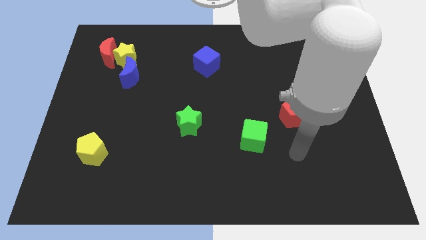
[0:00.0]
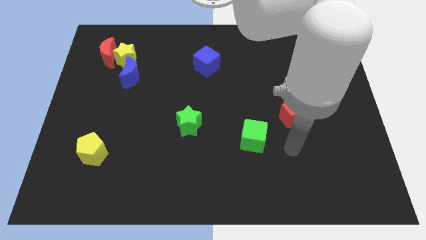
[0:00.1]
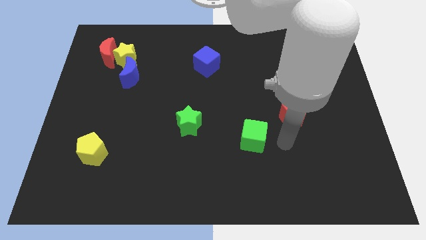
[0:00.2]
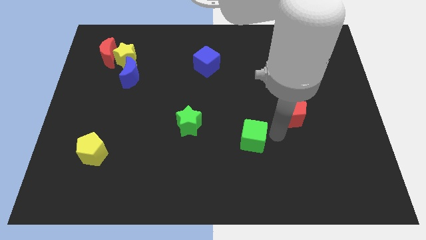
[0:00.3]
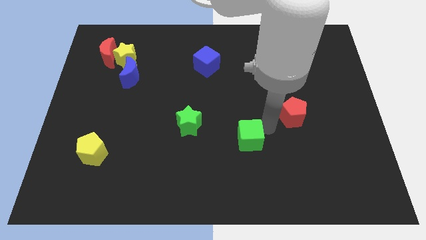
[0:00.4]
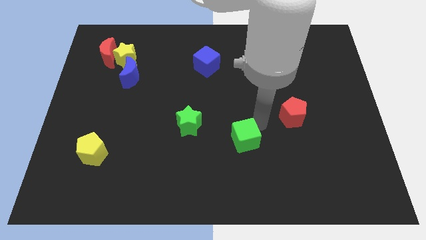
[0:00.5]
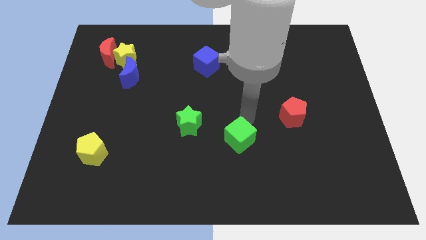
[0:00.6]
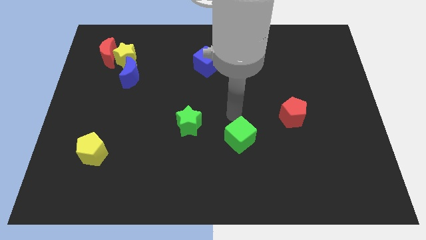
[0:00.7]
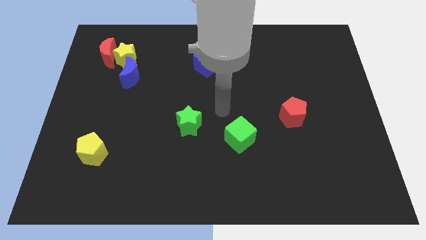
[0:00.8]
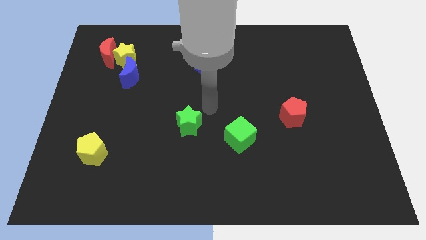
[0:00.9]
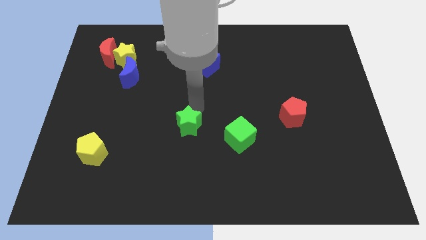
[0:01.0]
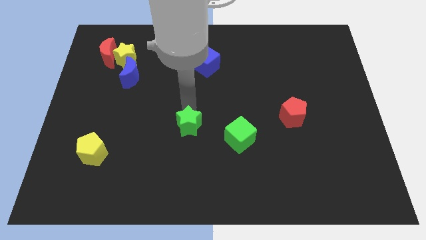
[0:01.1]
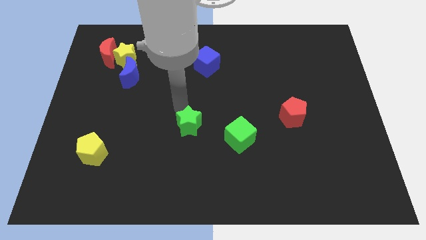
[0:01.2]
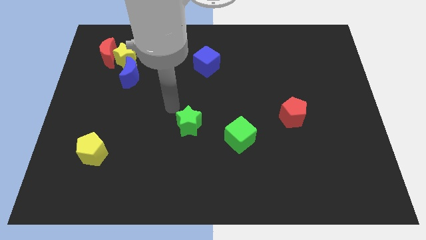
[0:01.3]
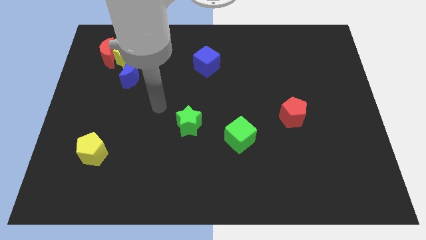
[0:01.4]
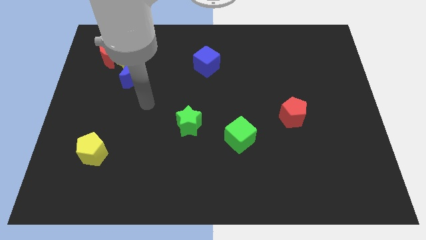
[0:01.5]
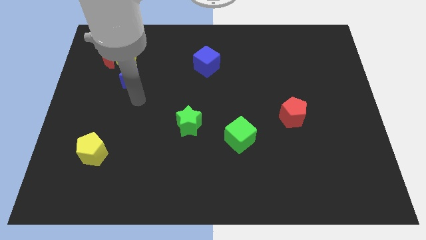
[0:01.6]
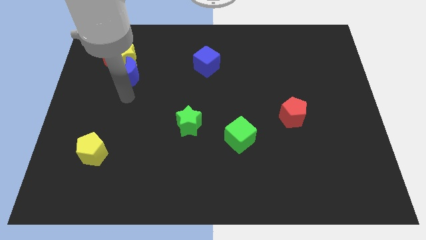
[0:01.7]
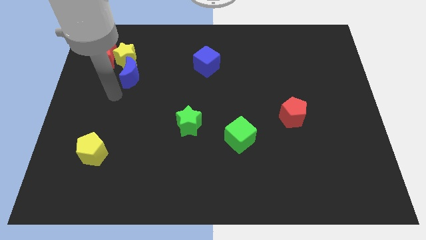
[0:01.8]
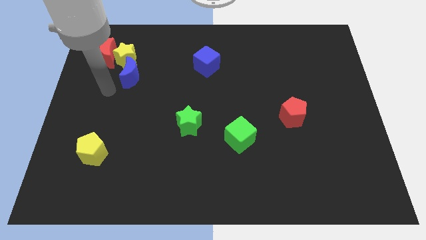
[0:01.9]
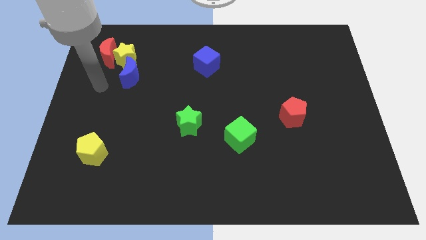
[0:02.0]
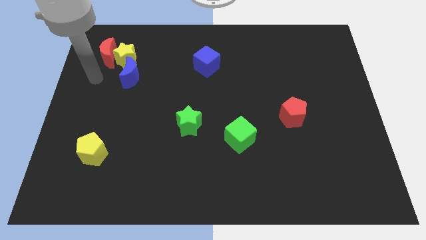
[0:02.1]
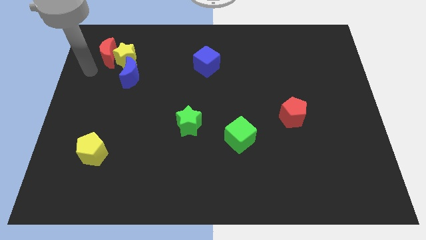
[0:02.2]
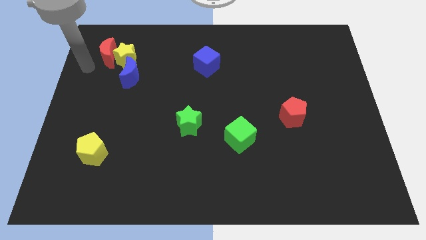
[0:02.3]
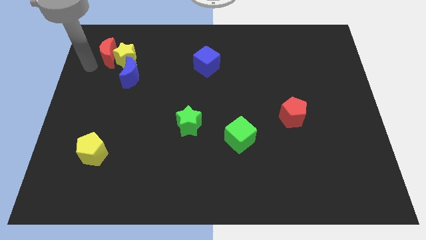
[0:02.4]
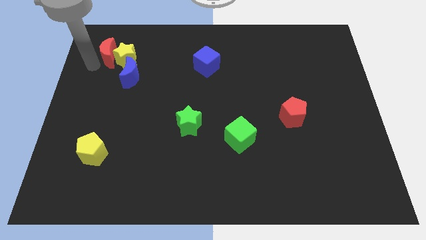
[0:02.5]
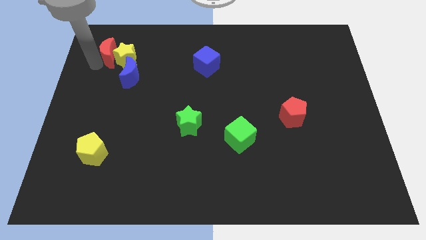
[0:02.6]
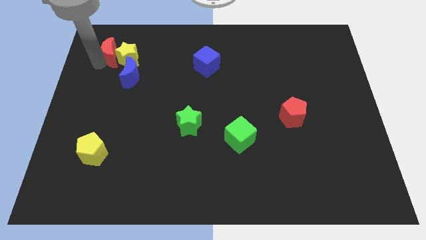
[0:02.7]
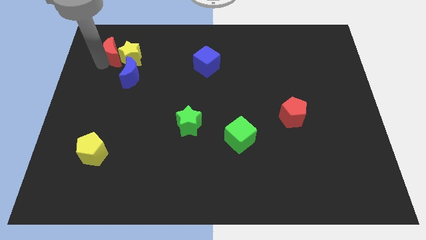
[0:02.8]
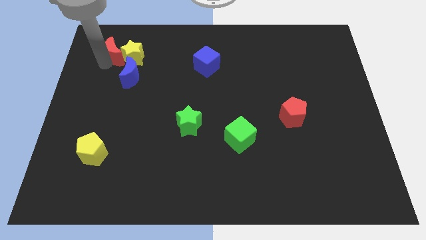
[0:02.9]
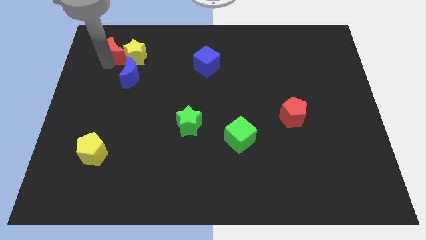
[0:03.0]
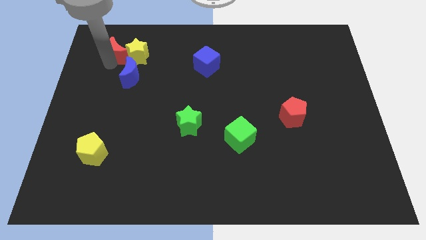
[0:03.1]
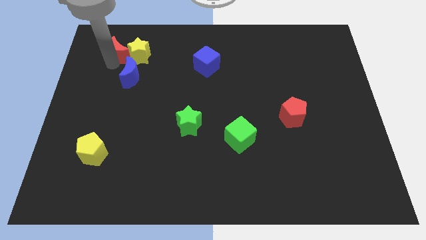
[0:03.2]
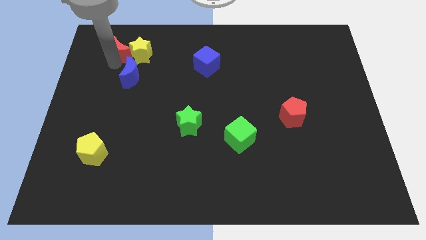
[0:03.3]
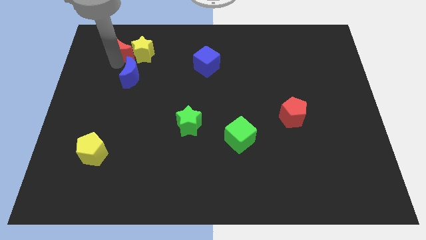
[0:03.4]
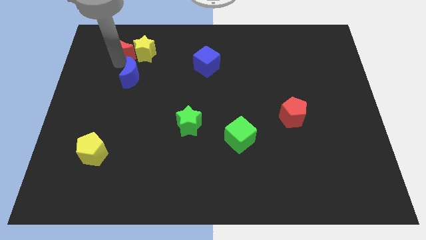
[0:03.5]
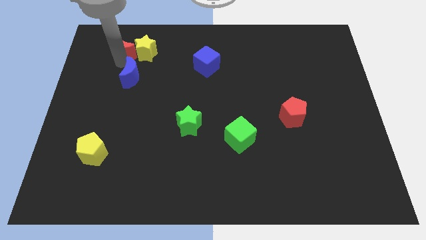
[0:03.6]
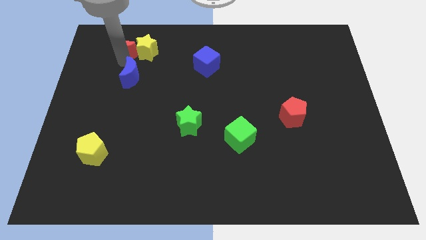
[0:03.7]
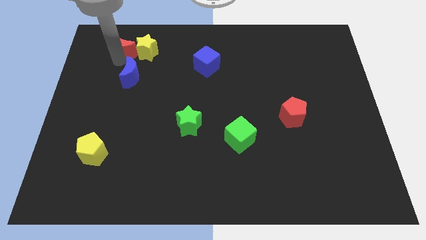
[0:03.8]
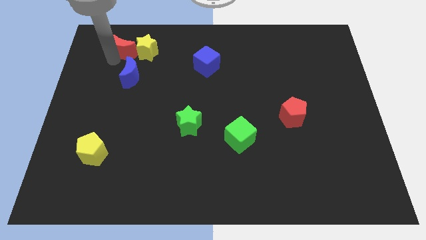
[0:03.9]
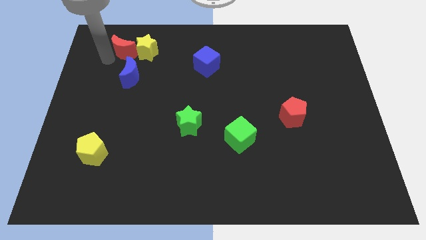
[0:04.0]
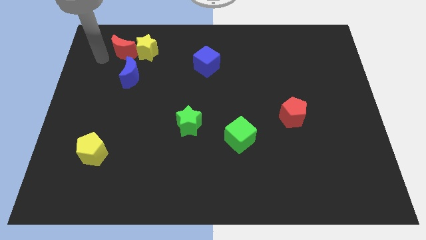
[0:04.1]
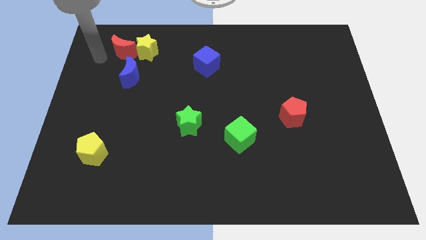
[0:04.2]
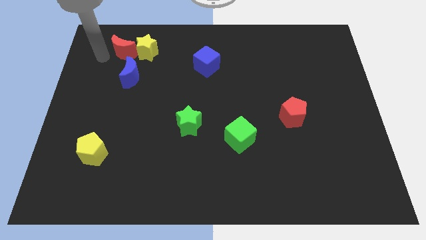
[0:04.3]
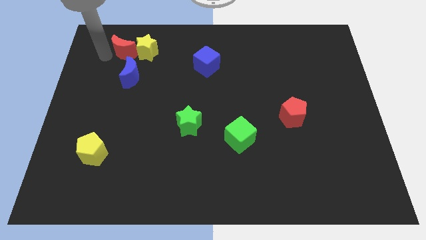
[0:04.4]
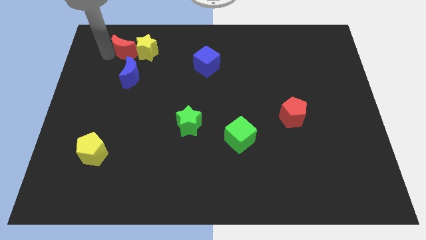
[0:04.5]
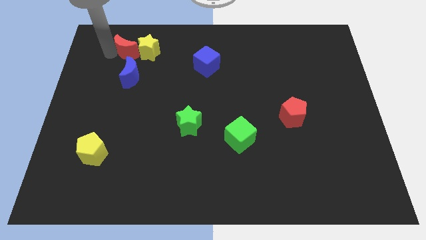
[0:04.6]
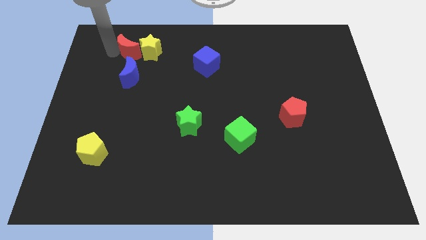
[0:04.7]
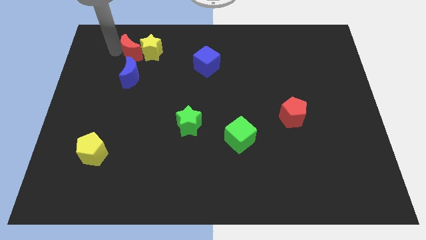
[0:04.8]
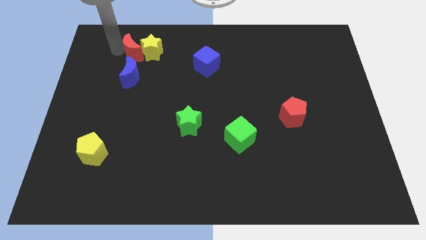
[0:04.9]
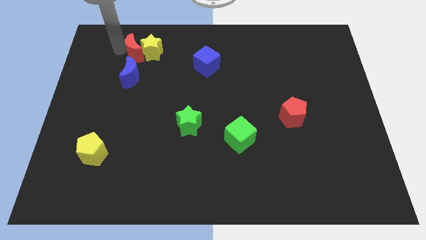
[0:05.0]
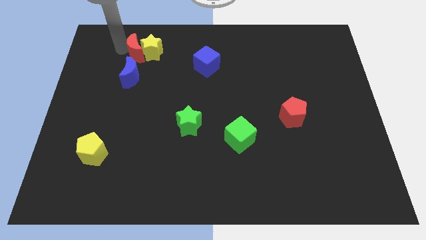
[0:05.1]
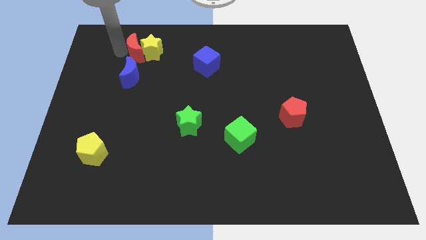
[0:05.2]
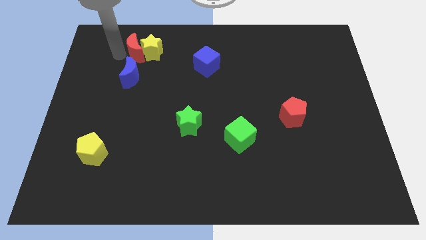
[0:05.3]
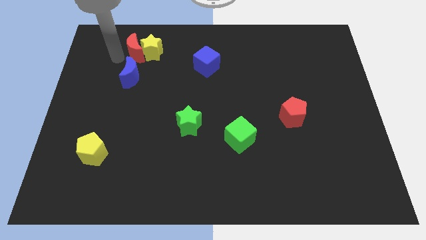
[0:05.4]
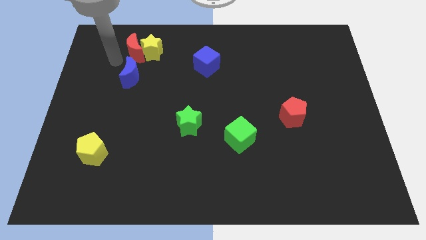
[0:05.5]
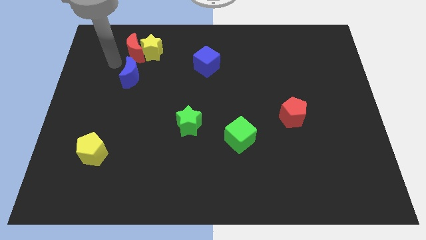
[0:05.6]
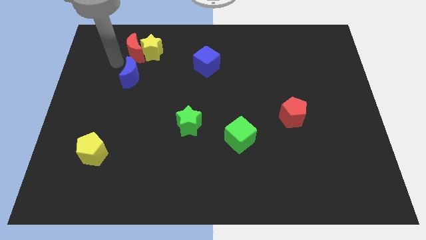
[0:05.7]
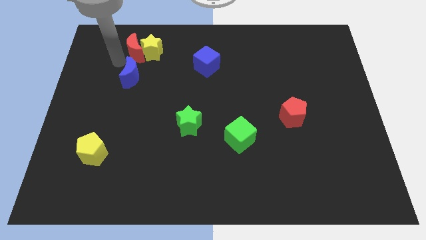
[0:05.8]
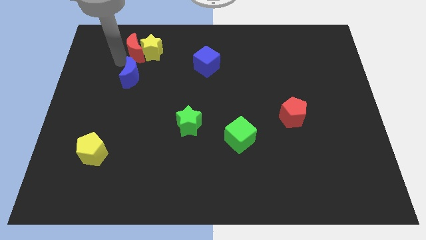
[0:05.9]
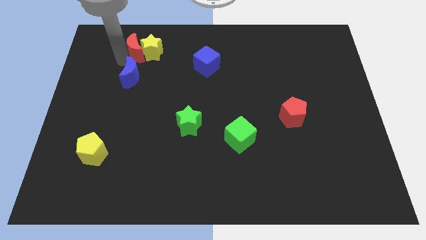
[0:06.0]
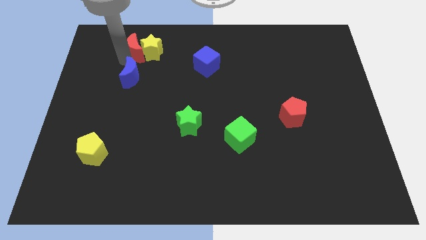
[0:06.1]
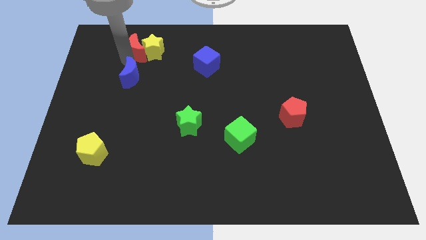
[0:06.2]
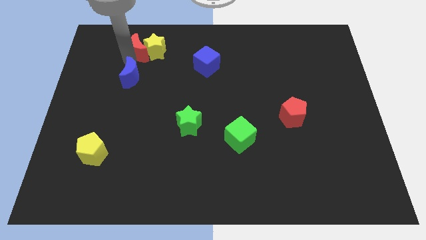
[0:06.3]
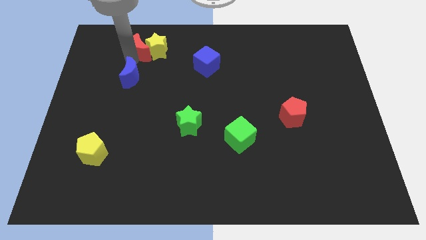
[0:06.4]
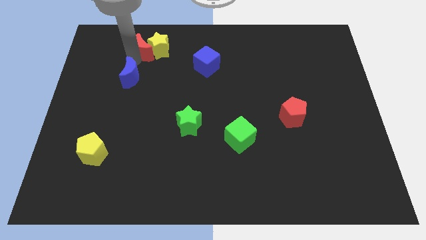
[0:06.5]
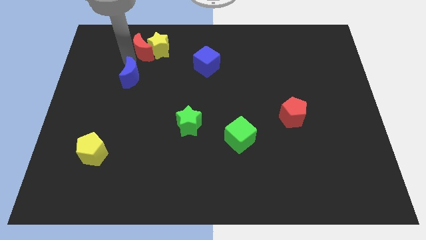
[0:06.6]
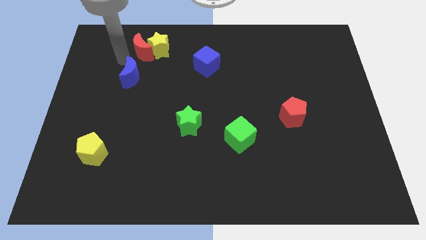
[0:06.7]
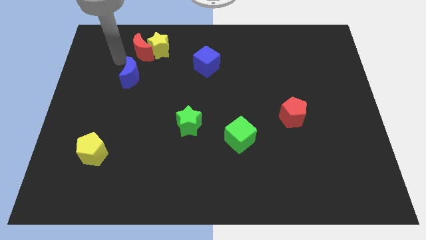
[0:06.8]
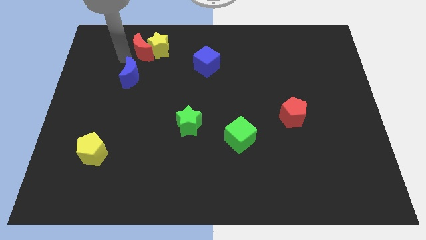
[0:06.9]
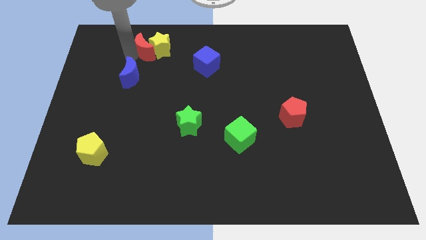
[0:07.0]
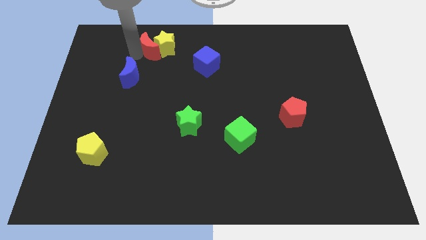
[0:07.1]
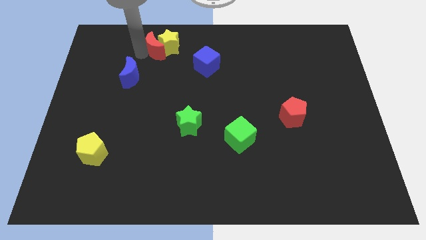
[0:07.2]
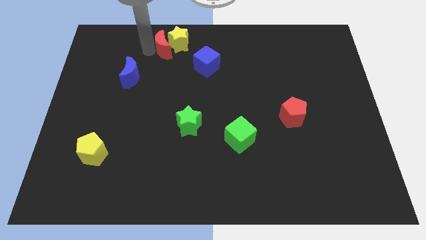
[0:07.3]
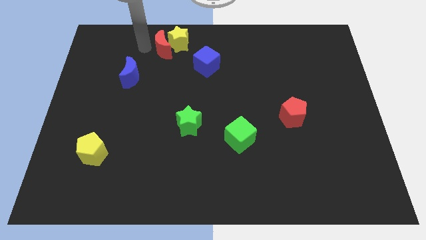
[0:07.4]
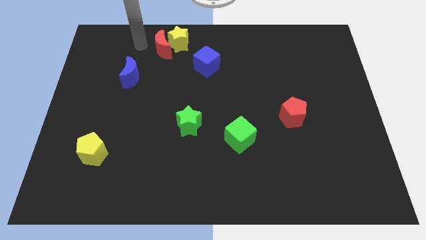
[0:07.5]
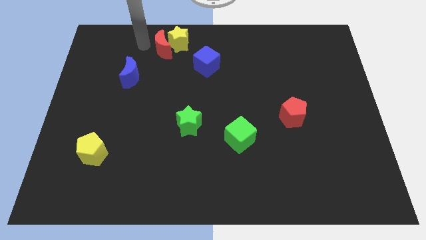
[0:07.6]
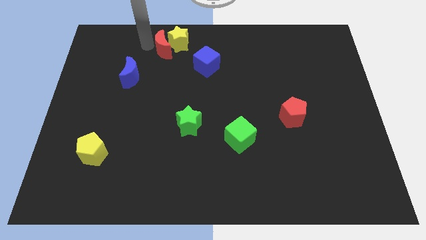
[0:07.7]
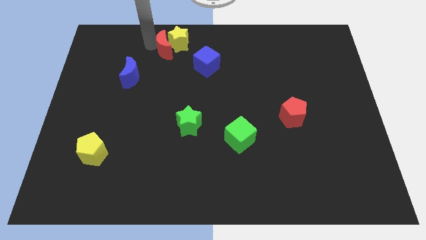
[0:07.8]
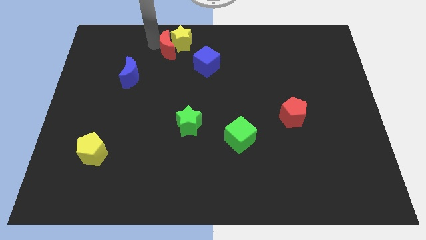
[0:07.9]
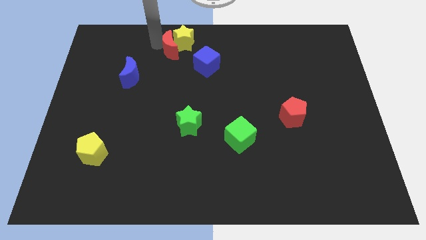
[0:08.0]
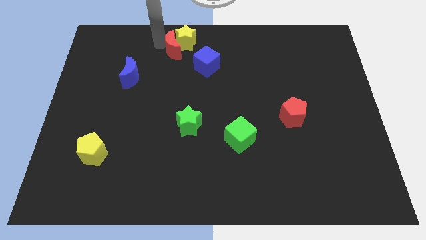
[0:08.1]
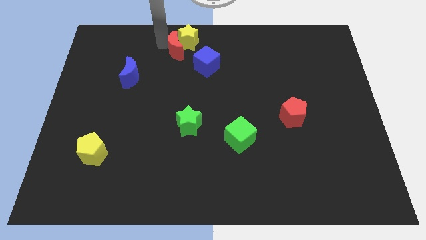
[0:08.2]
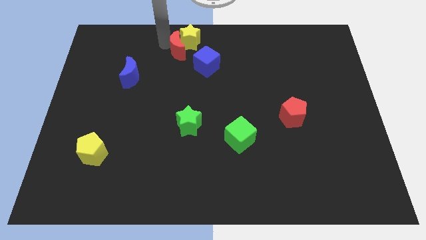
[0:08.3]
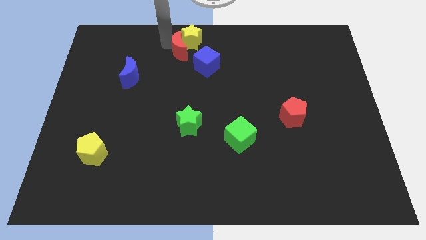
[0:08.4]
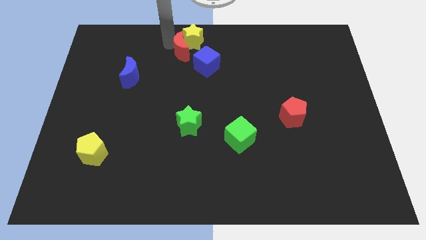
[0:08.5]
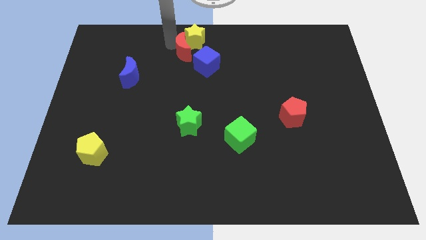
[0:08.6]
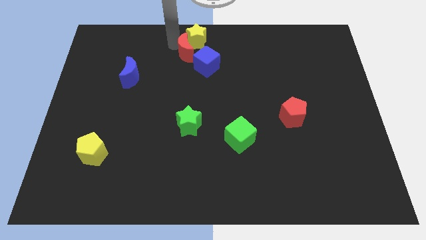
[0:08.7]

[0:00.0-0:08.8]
push the red moon right
